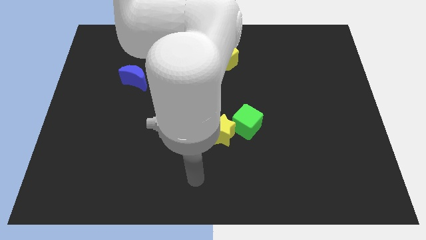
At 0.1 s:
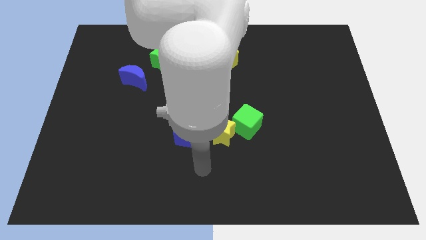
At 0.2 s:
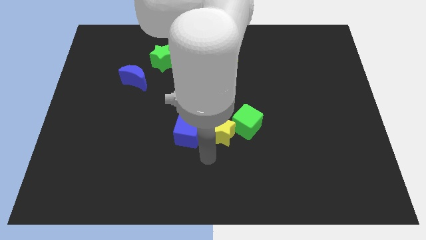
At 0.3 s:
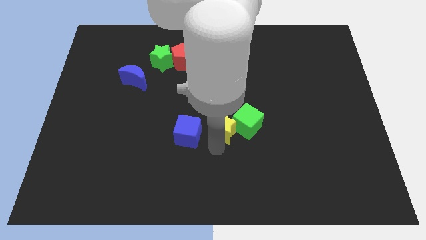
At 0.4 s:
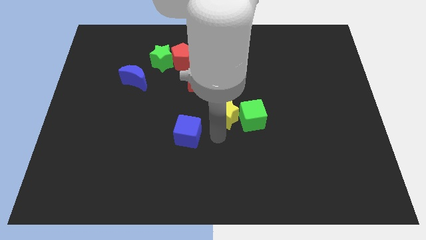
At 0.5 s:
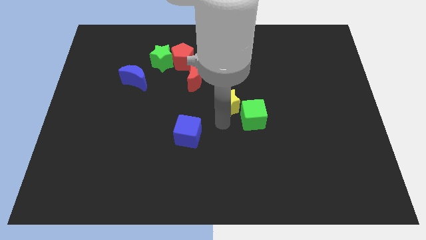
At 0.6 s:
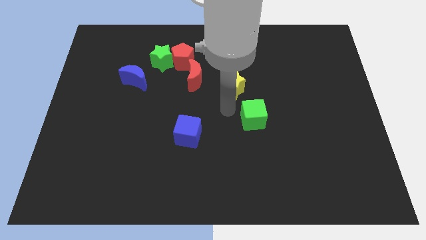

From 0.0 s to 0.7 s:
move the green cube away from the yellow star

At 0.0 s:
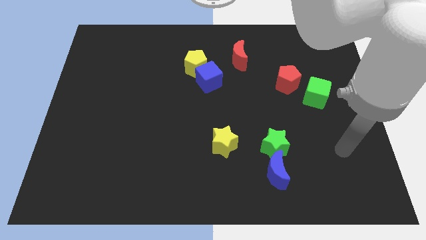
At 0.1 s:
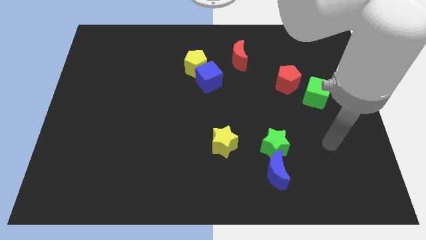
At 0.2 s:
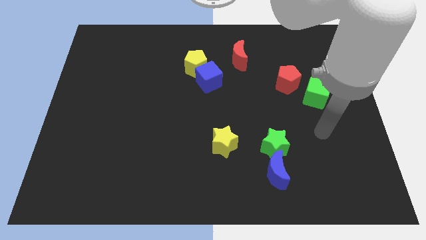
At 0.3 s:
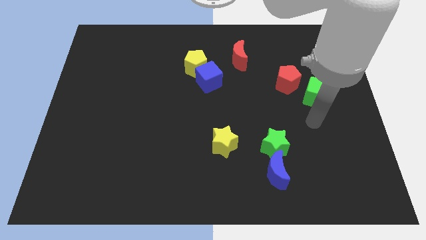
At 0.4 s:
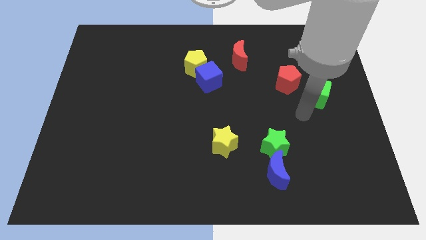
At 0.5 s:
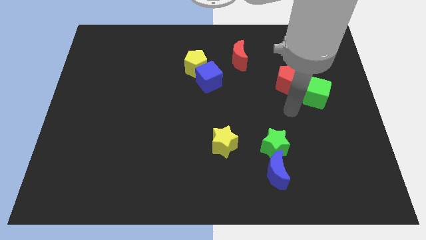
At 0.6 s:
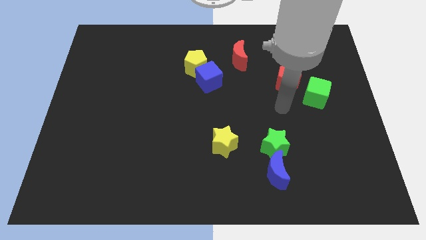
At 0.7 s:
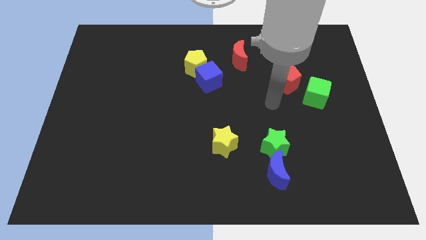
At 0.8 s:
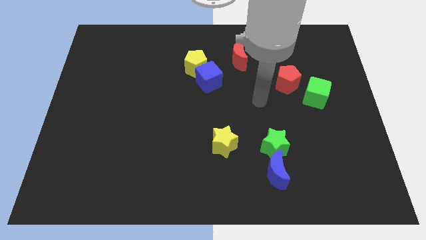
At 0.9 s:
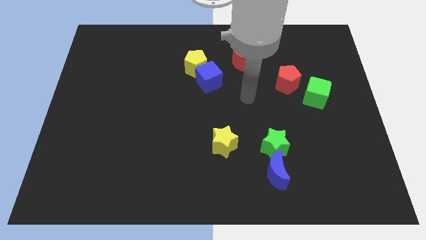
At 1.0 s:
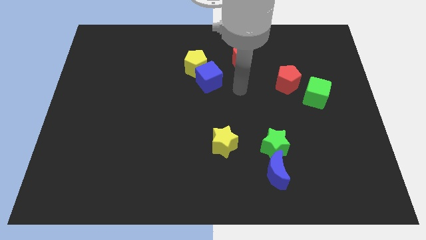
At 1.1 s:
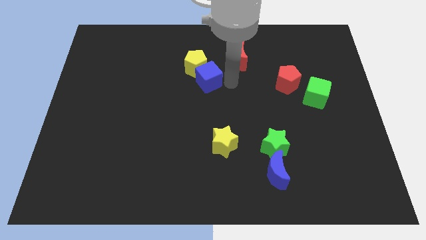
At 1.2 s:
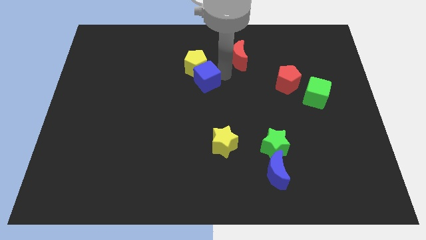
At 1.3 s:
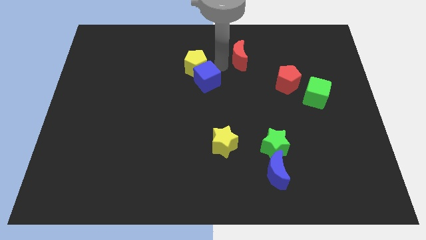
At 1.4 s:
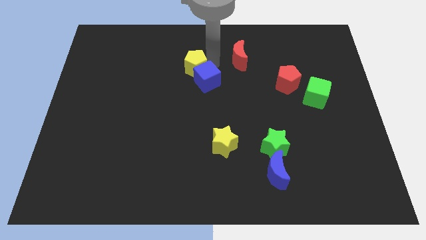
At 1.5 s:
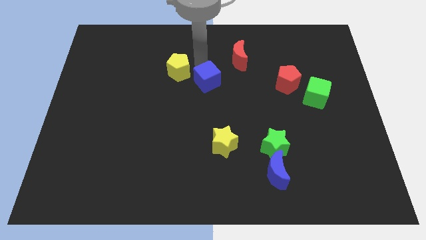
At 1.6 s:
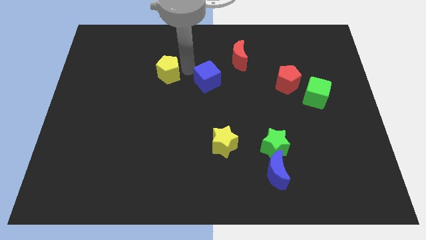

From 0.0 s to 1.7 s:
move the blue cube away from the yellow pentagon

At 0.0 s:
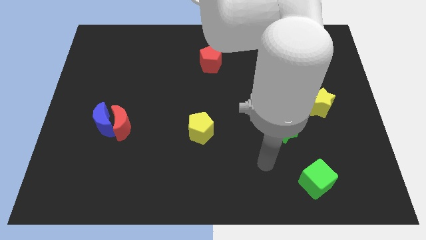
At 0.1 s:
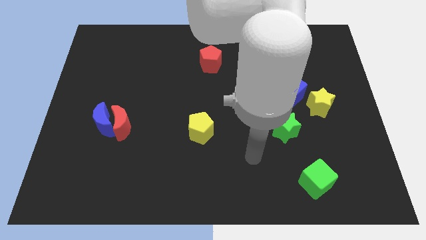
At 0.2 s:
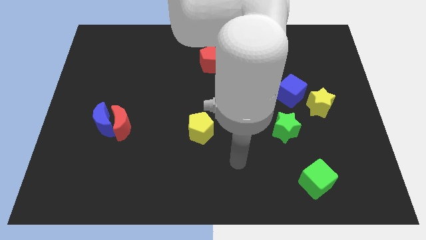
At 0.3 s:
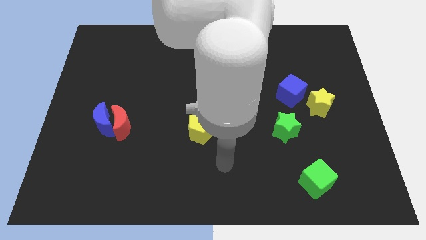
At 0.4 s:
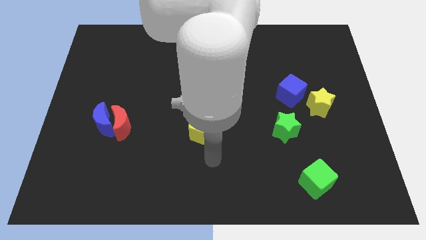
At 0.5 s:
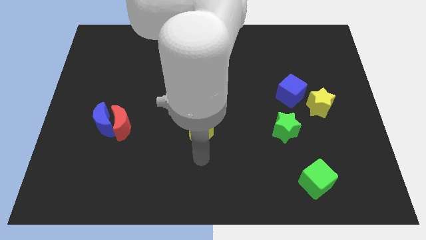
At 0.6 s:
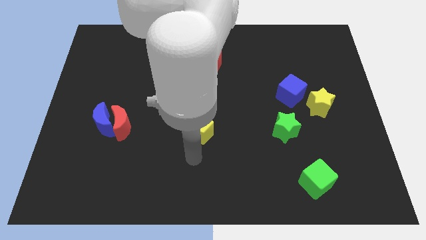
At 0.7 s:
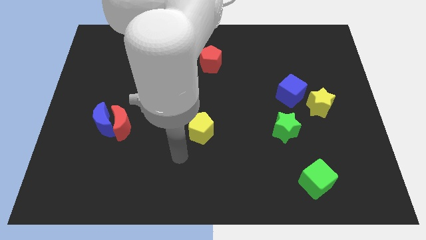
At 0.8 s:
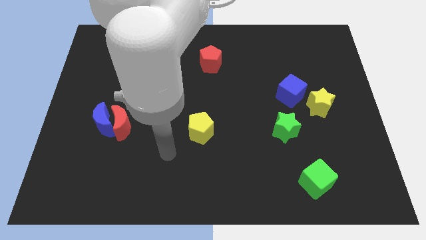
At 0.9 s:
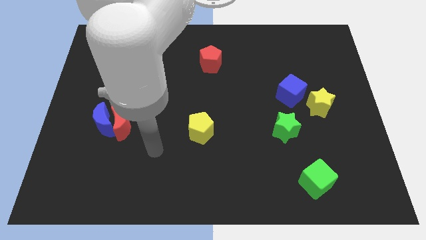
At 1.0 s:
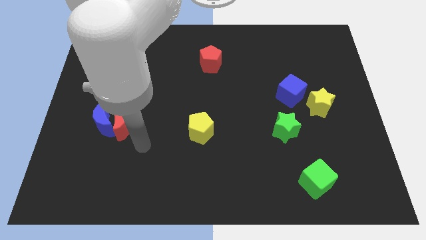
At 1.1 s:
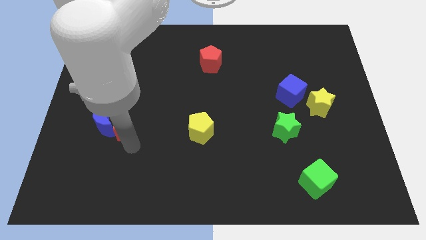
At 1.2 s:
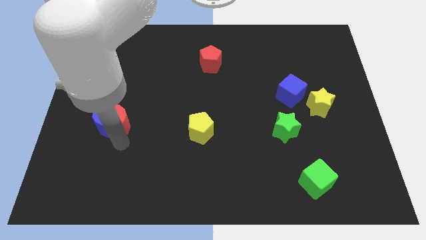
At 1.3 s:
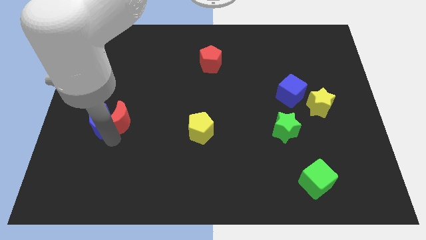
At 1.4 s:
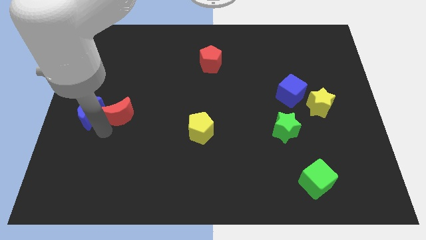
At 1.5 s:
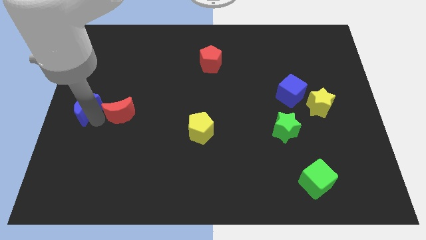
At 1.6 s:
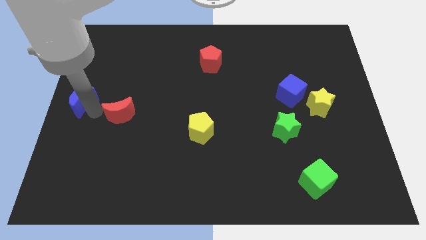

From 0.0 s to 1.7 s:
separate the red moon from the blue moon

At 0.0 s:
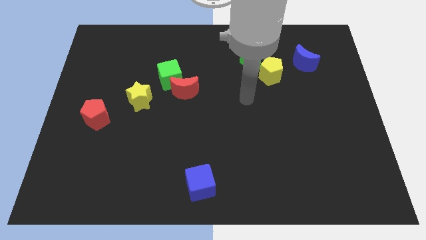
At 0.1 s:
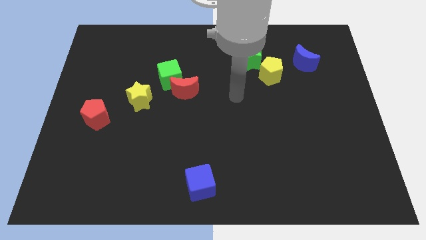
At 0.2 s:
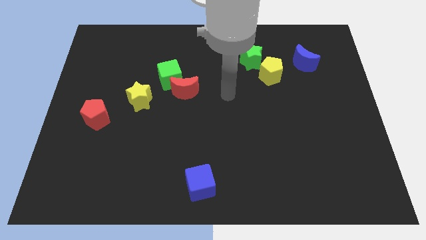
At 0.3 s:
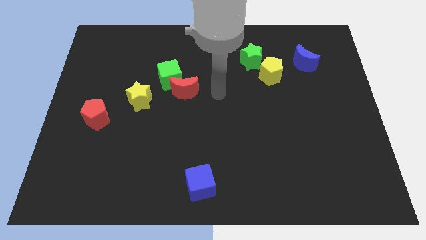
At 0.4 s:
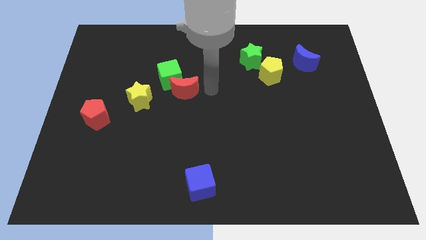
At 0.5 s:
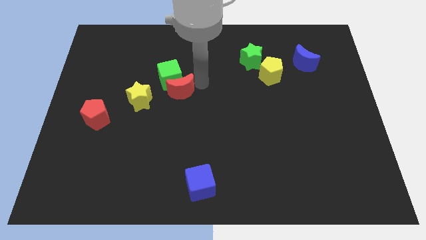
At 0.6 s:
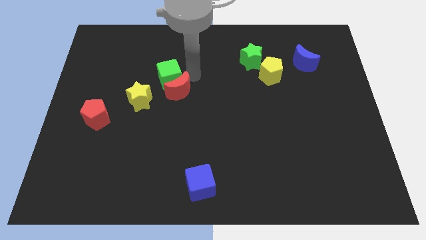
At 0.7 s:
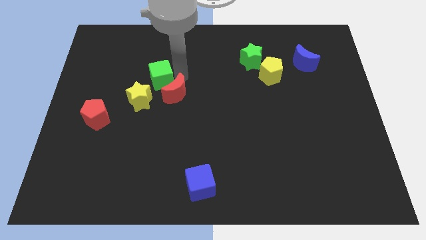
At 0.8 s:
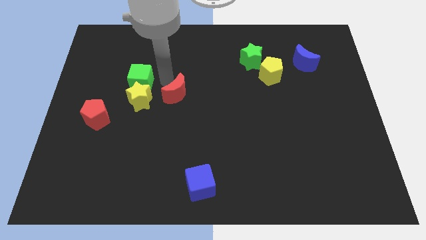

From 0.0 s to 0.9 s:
separate the red moon from the green cube

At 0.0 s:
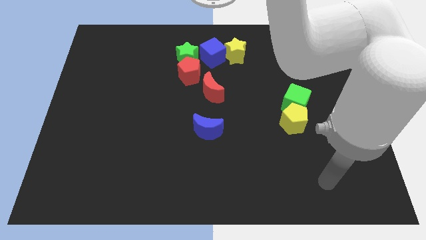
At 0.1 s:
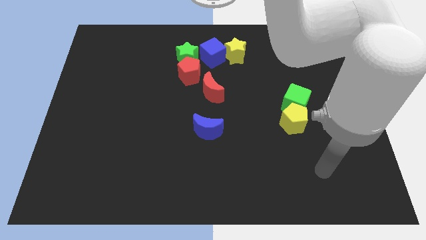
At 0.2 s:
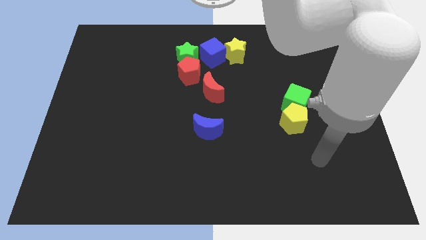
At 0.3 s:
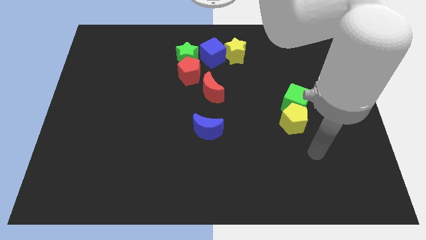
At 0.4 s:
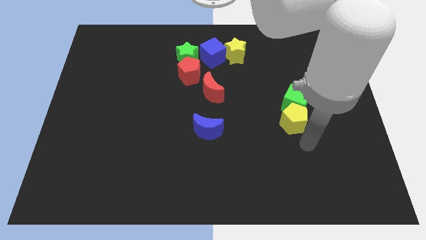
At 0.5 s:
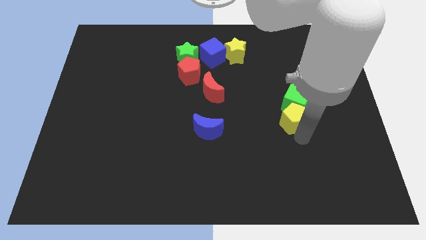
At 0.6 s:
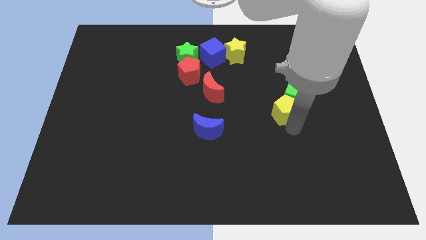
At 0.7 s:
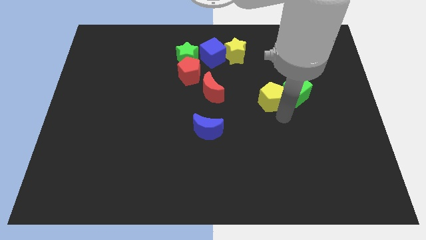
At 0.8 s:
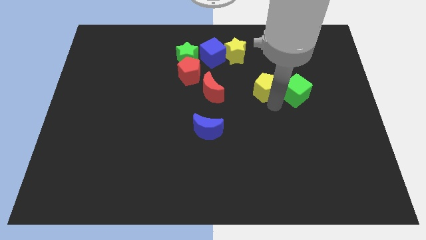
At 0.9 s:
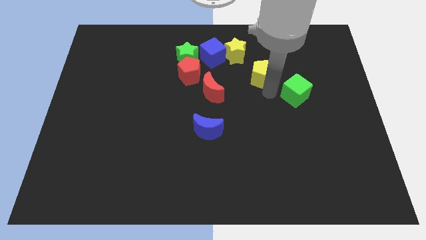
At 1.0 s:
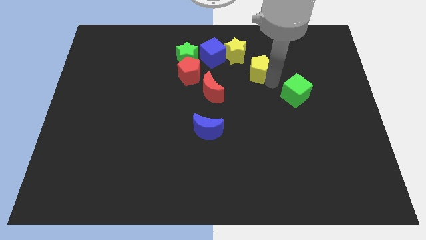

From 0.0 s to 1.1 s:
separate the green cube from the yellow pentagon

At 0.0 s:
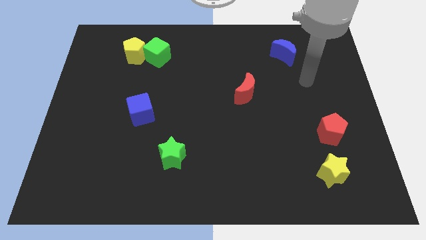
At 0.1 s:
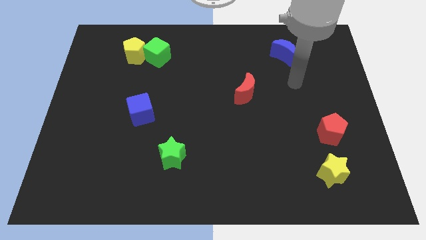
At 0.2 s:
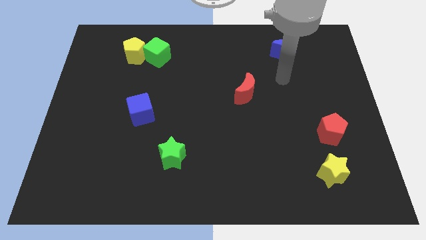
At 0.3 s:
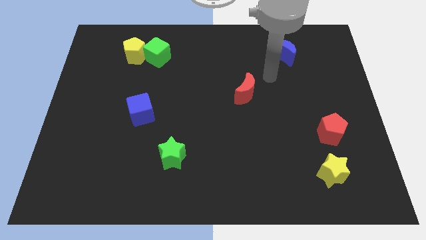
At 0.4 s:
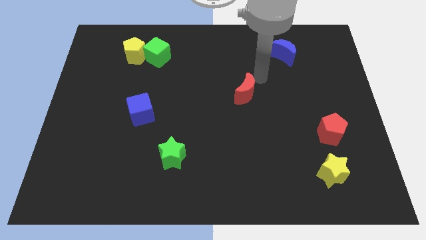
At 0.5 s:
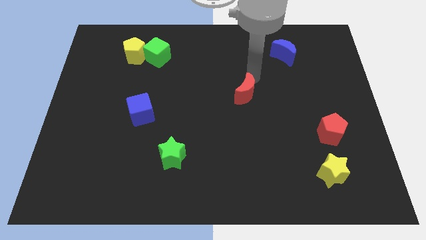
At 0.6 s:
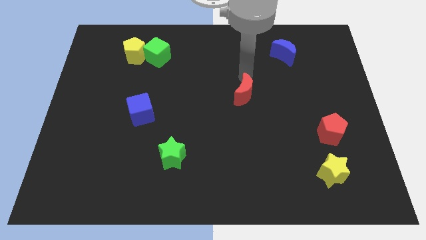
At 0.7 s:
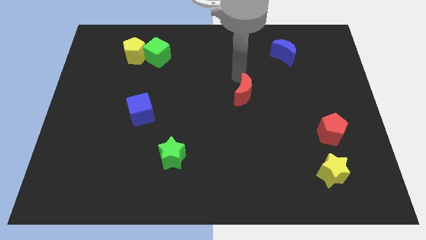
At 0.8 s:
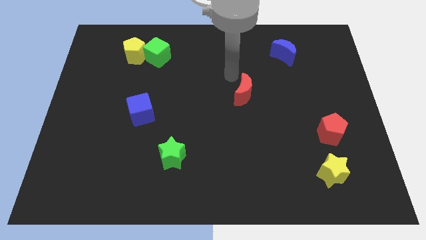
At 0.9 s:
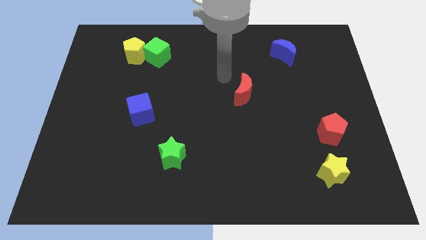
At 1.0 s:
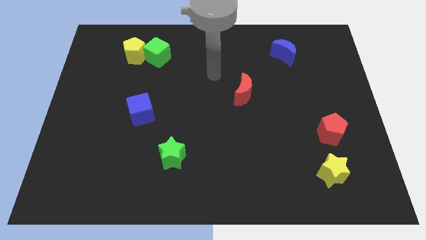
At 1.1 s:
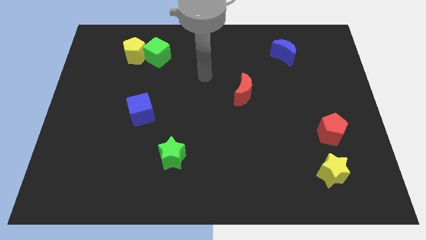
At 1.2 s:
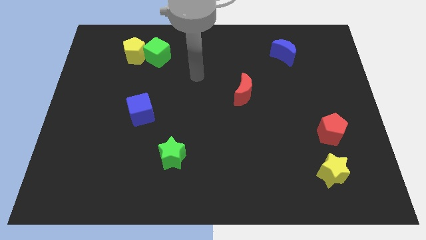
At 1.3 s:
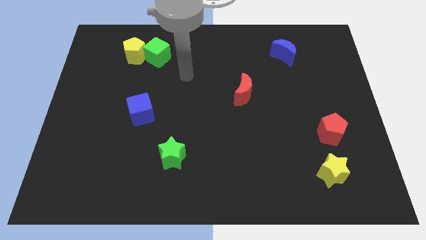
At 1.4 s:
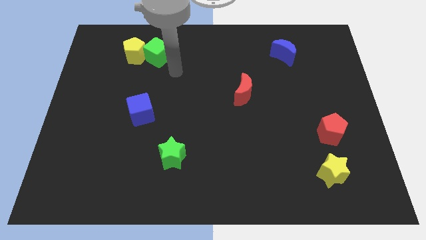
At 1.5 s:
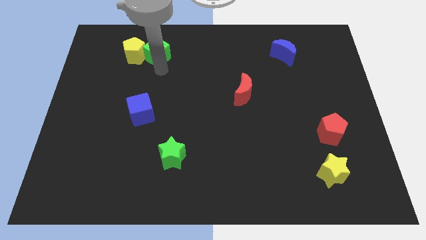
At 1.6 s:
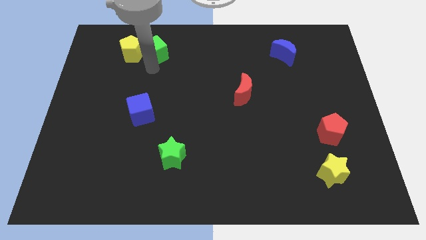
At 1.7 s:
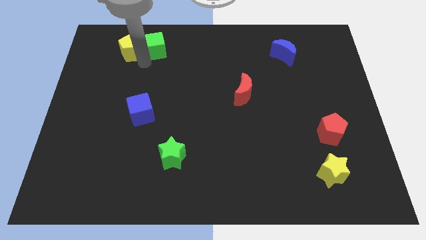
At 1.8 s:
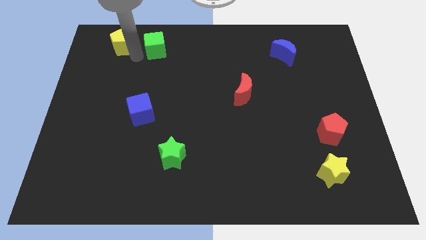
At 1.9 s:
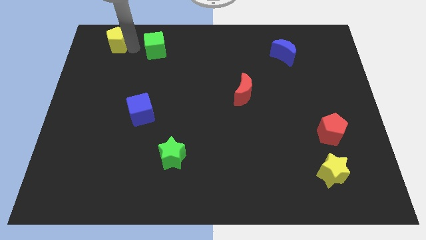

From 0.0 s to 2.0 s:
move the green cube away from the yellow pentagon

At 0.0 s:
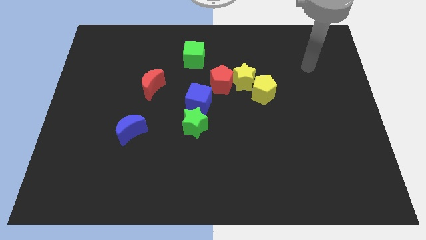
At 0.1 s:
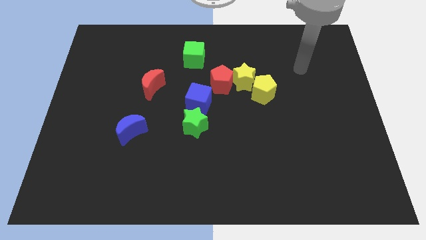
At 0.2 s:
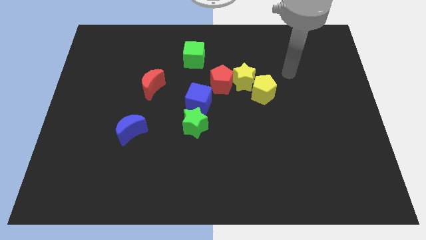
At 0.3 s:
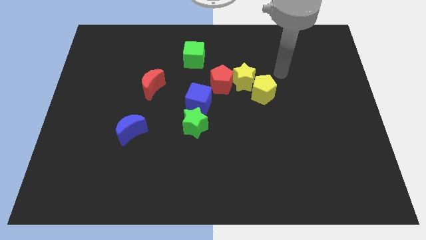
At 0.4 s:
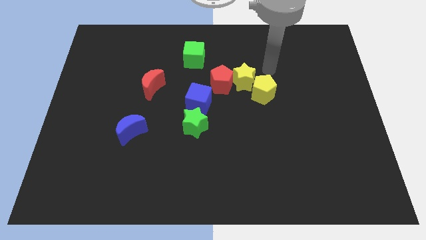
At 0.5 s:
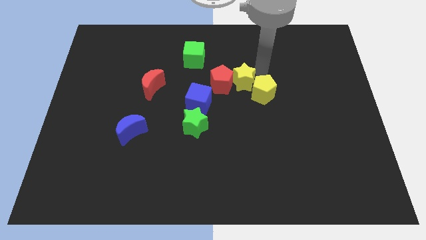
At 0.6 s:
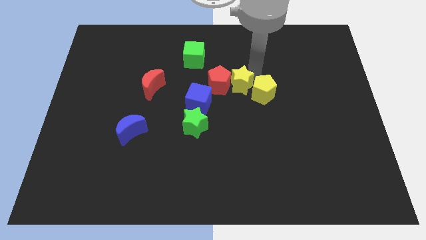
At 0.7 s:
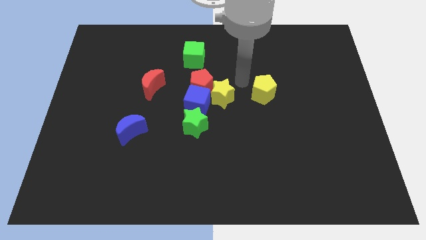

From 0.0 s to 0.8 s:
separate the yellow pentagon from the yellow star

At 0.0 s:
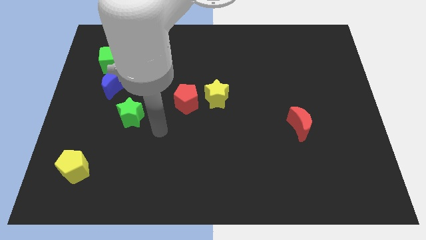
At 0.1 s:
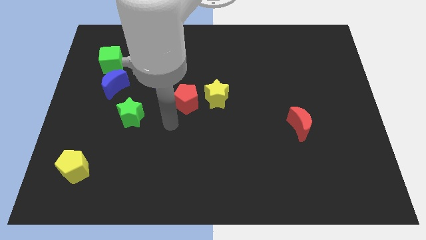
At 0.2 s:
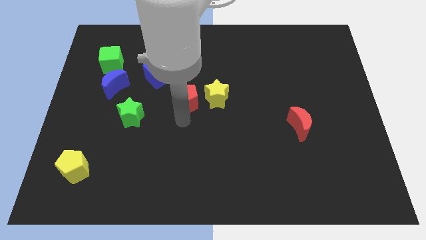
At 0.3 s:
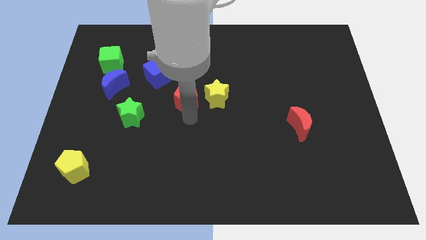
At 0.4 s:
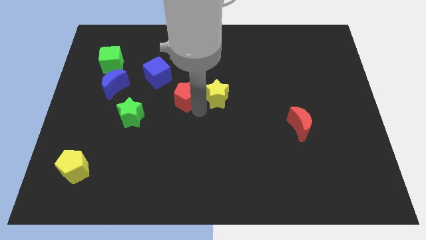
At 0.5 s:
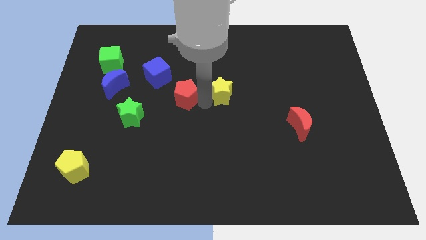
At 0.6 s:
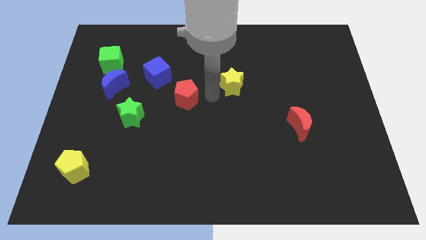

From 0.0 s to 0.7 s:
separate the red pentagon from the yellow star
